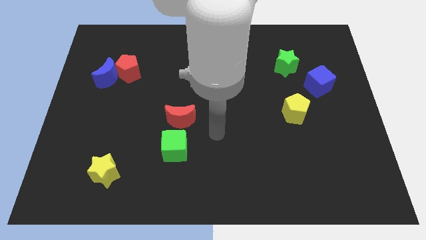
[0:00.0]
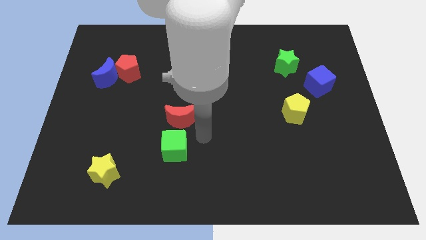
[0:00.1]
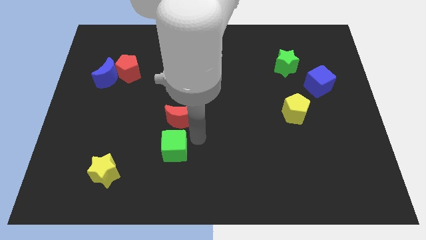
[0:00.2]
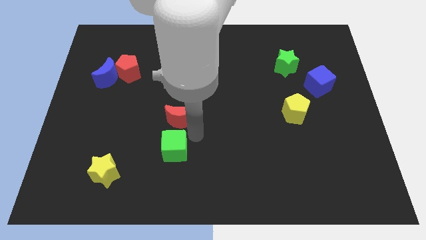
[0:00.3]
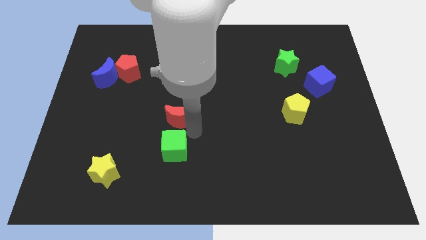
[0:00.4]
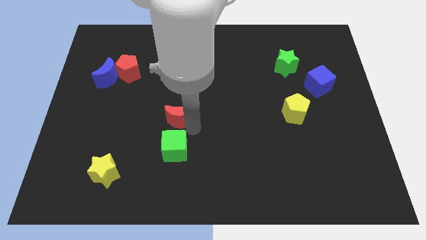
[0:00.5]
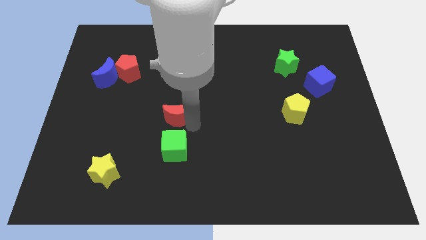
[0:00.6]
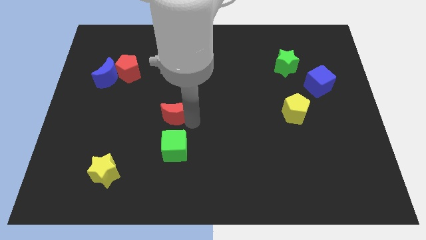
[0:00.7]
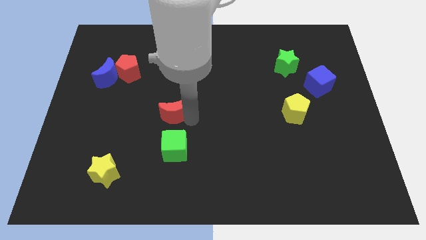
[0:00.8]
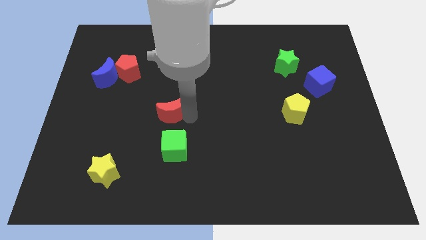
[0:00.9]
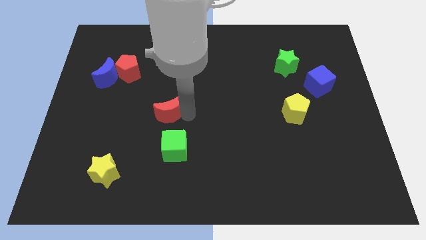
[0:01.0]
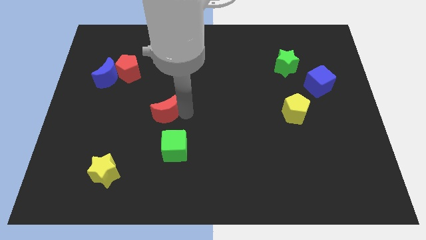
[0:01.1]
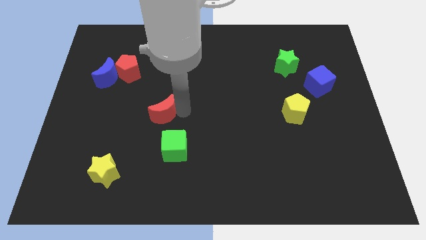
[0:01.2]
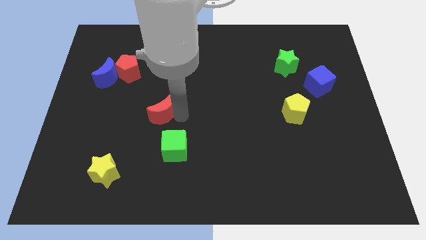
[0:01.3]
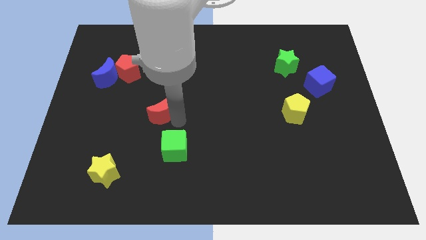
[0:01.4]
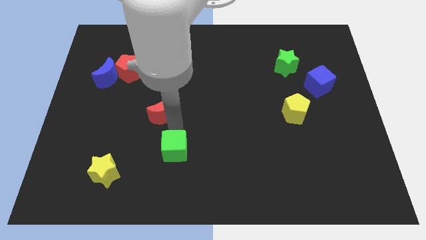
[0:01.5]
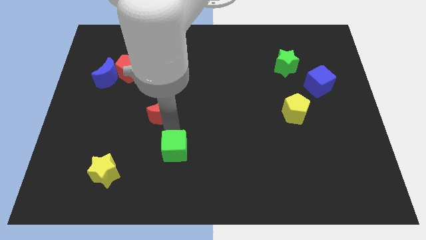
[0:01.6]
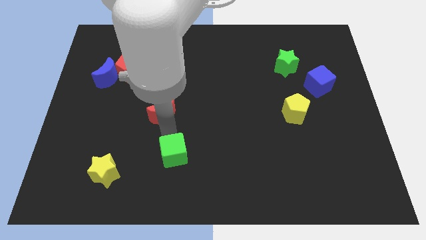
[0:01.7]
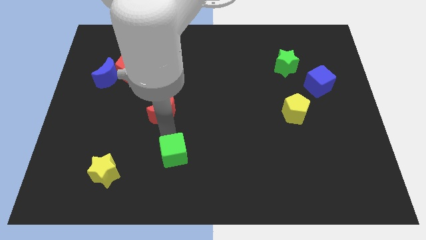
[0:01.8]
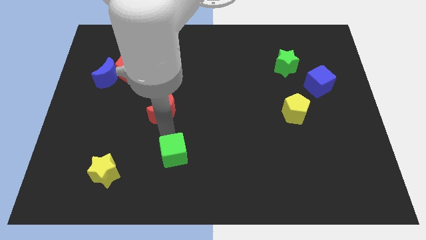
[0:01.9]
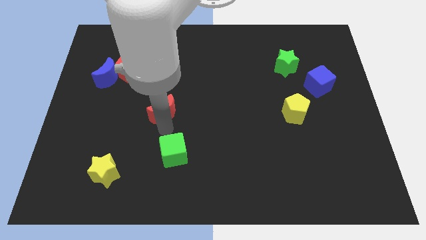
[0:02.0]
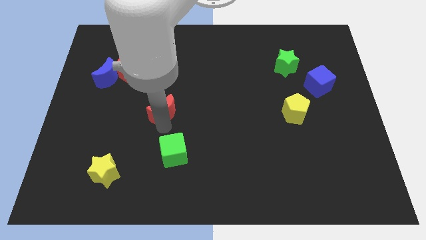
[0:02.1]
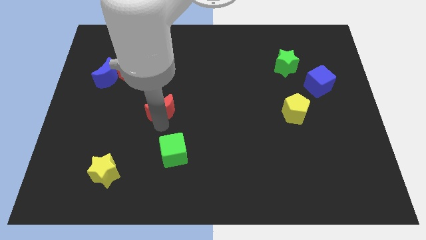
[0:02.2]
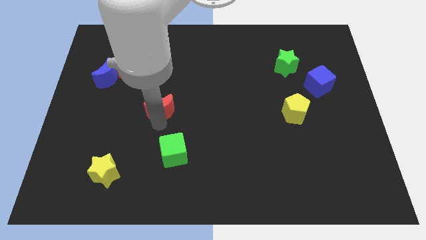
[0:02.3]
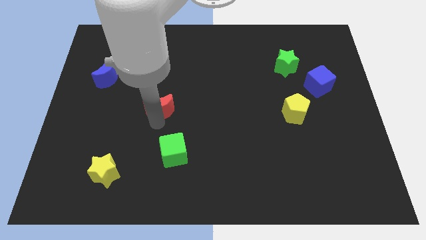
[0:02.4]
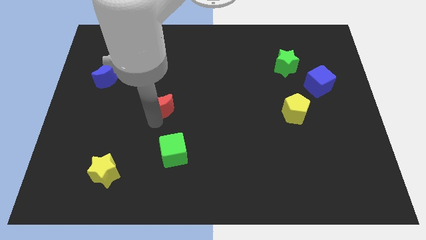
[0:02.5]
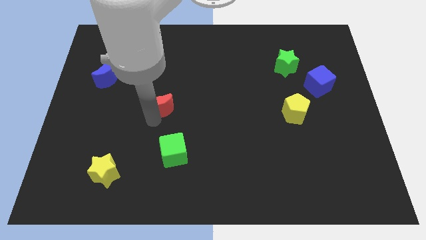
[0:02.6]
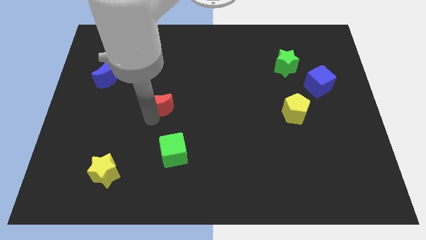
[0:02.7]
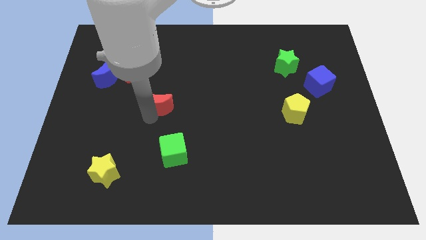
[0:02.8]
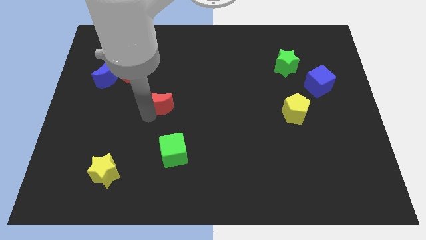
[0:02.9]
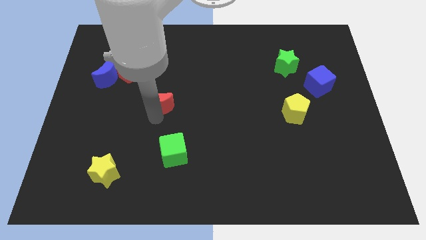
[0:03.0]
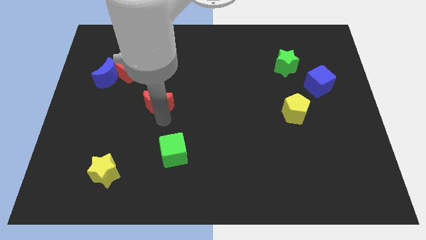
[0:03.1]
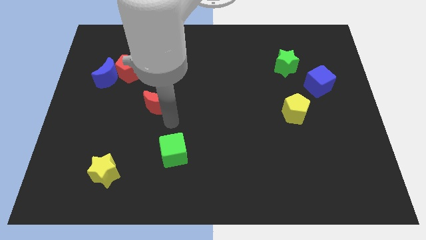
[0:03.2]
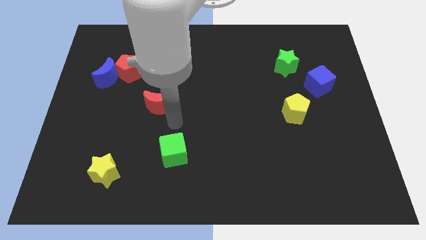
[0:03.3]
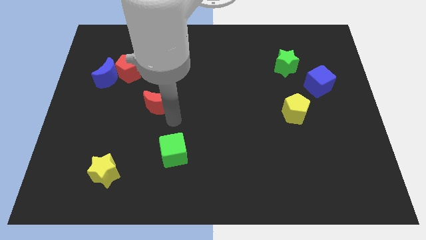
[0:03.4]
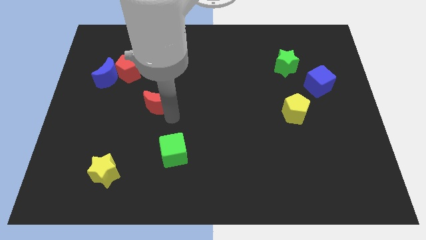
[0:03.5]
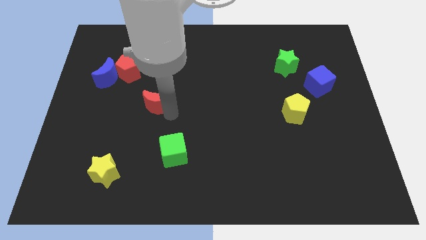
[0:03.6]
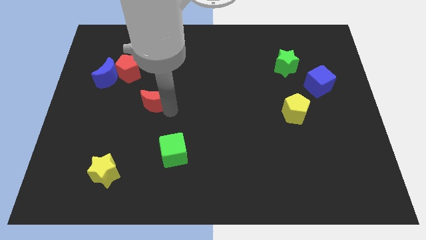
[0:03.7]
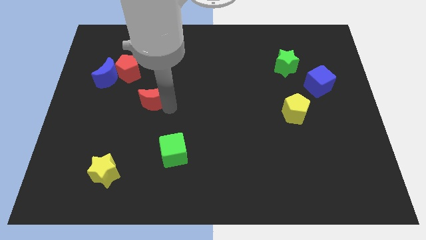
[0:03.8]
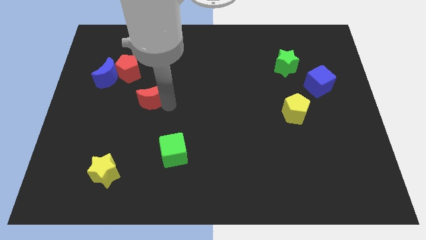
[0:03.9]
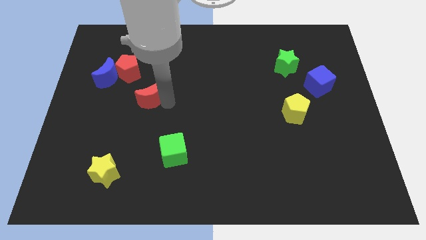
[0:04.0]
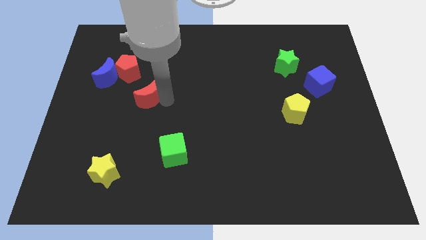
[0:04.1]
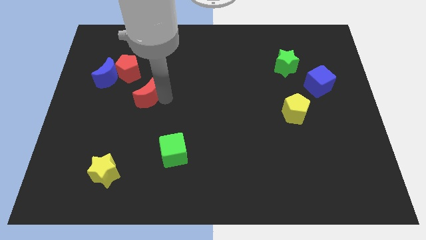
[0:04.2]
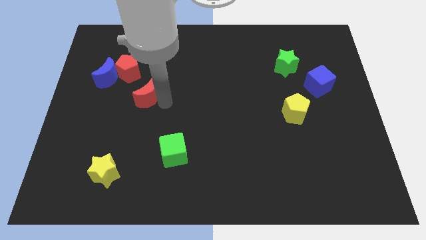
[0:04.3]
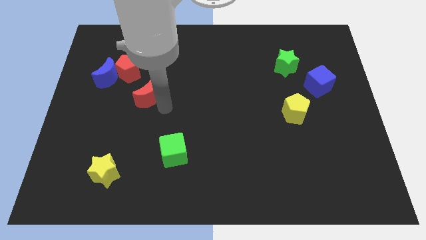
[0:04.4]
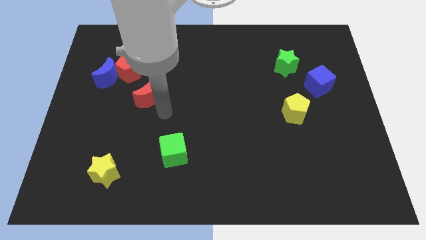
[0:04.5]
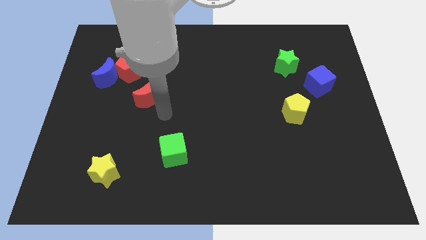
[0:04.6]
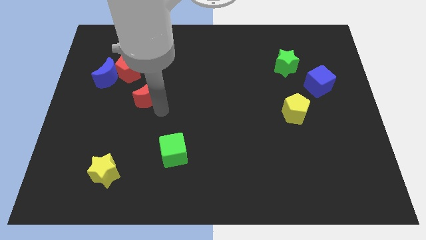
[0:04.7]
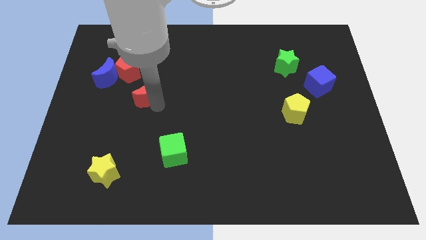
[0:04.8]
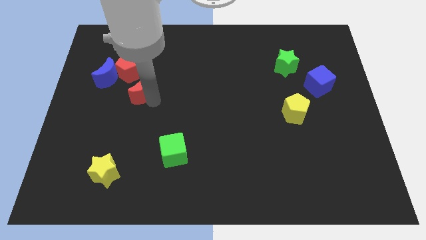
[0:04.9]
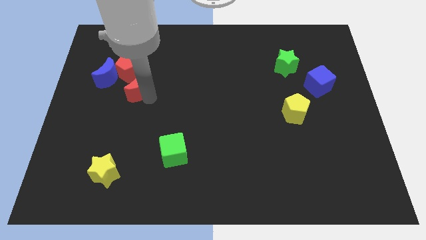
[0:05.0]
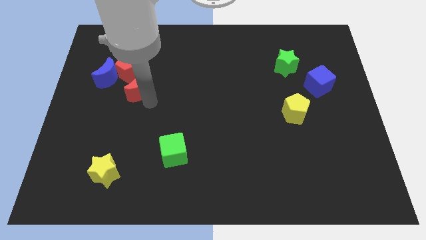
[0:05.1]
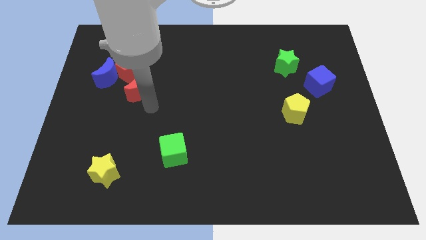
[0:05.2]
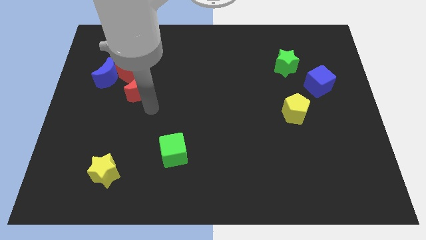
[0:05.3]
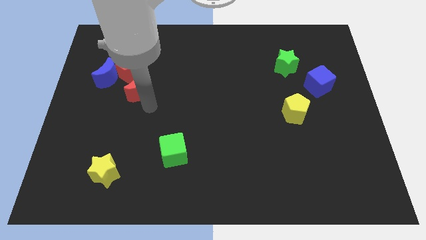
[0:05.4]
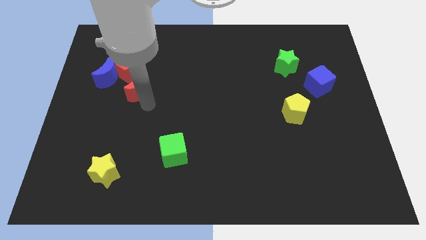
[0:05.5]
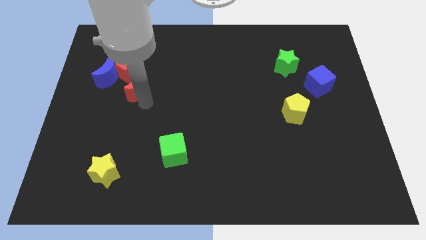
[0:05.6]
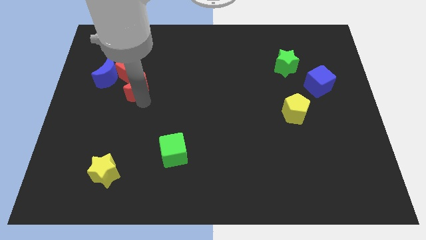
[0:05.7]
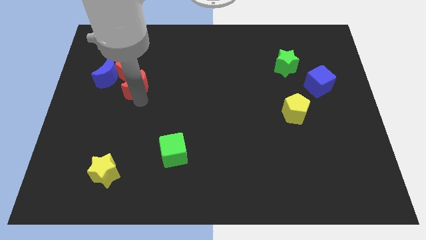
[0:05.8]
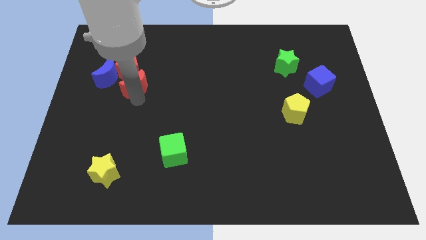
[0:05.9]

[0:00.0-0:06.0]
move the red moon close to the red pentagon

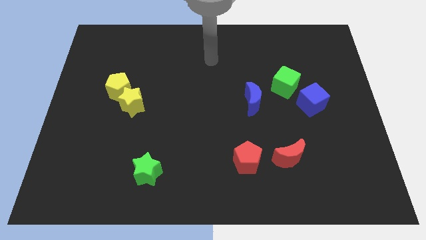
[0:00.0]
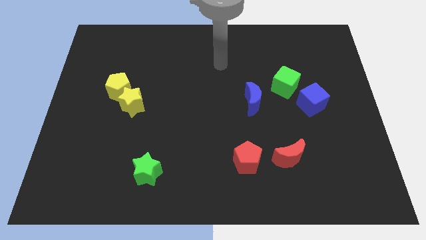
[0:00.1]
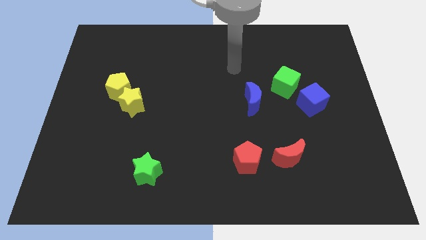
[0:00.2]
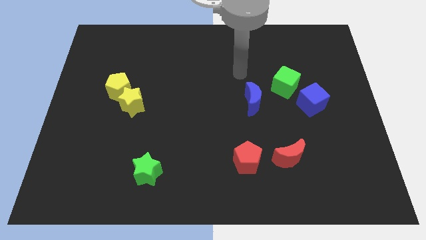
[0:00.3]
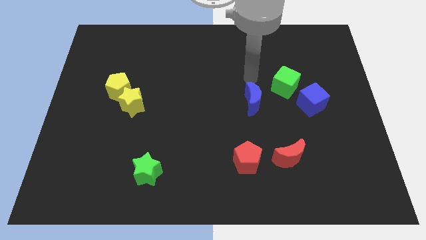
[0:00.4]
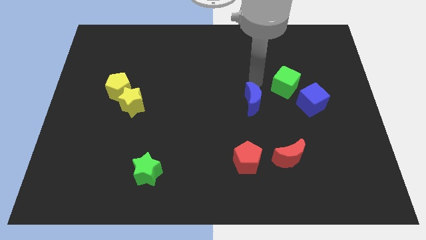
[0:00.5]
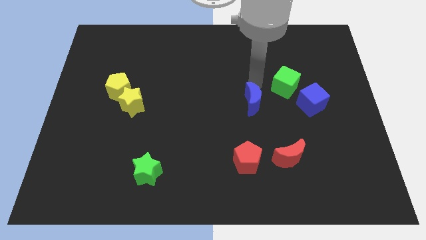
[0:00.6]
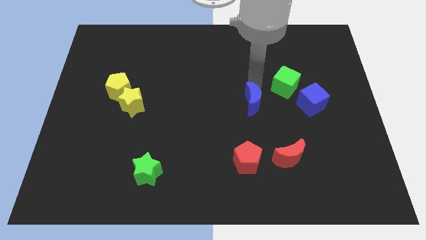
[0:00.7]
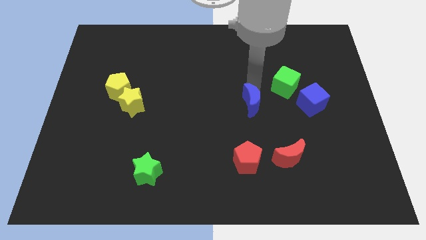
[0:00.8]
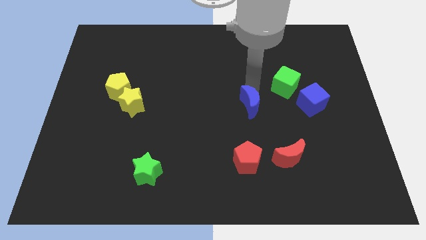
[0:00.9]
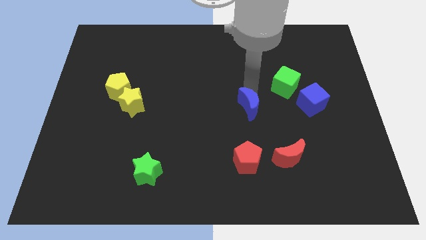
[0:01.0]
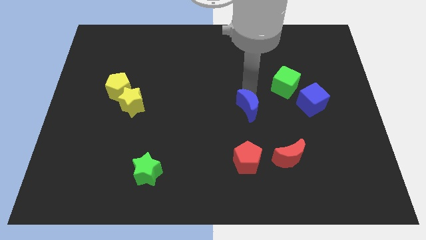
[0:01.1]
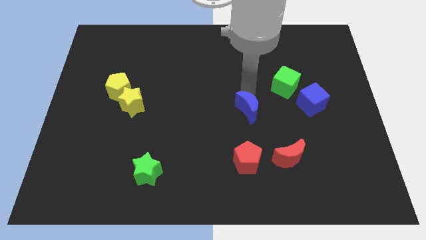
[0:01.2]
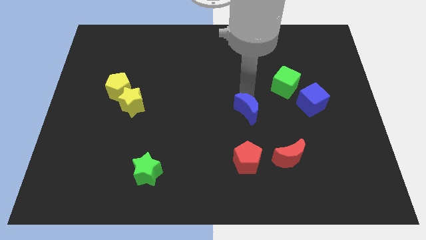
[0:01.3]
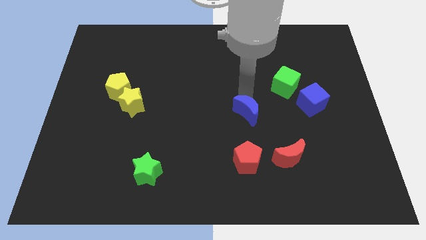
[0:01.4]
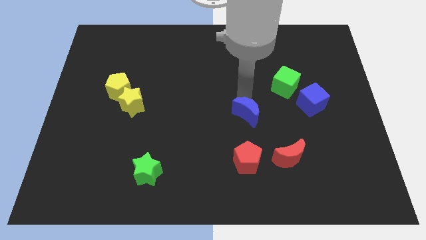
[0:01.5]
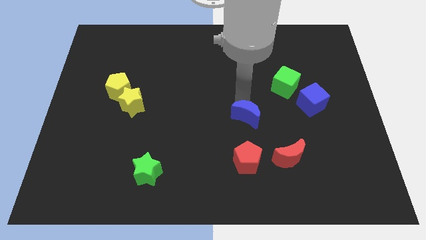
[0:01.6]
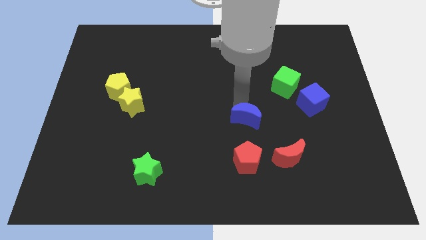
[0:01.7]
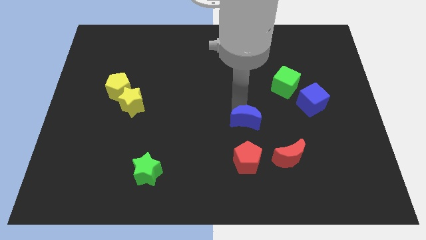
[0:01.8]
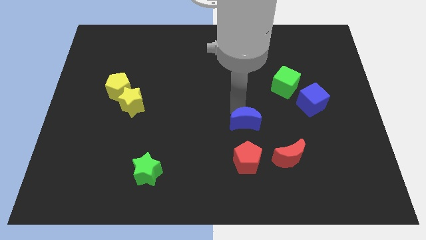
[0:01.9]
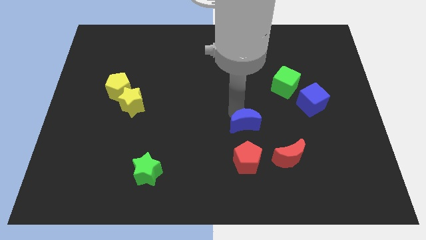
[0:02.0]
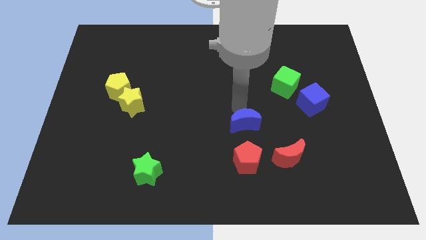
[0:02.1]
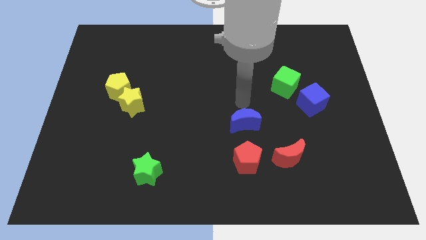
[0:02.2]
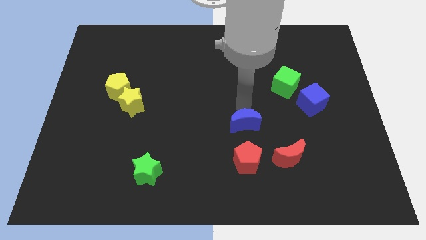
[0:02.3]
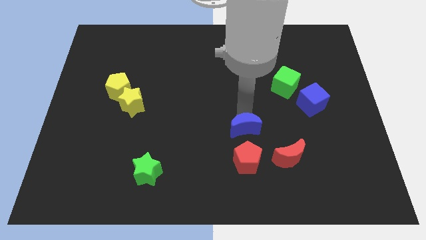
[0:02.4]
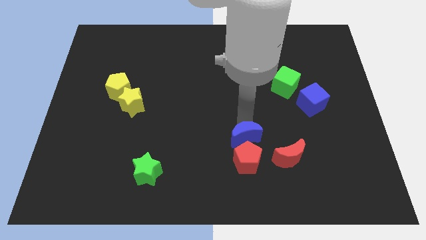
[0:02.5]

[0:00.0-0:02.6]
push the blue moon to the red pentagon
